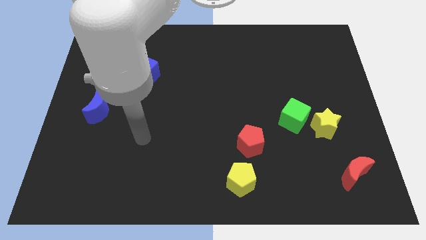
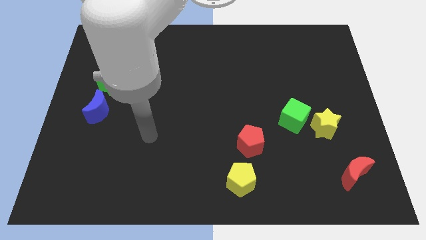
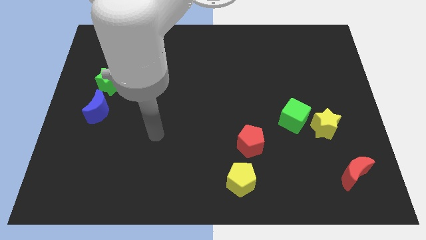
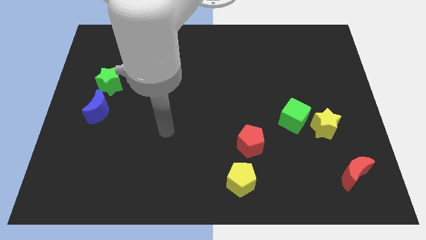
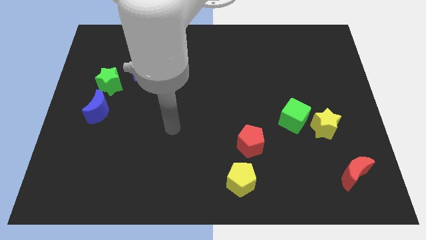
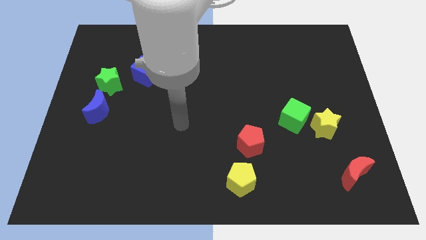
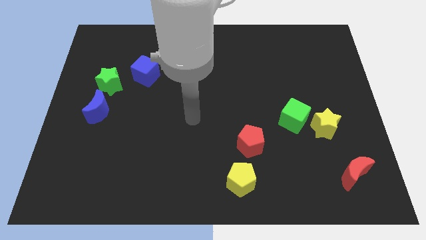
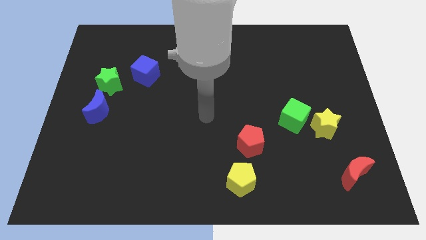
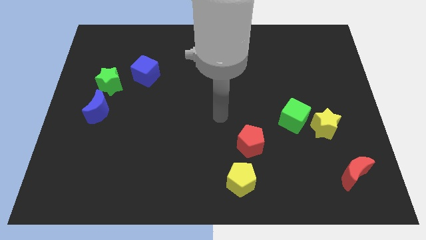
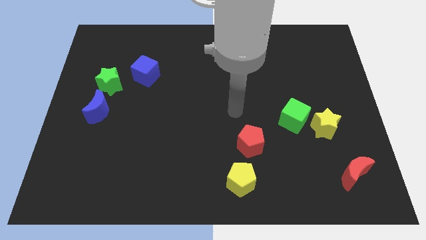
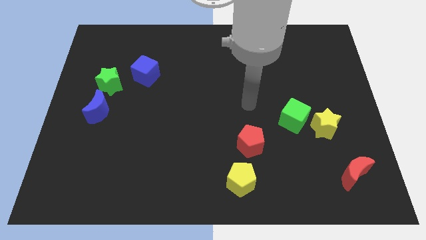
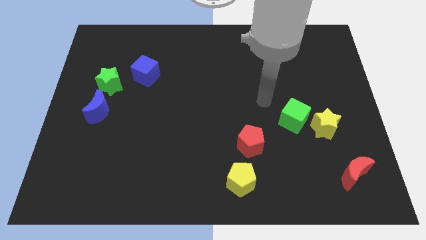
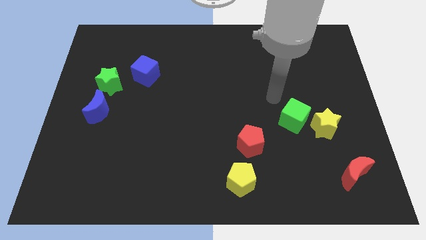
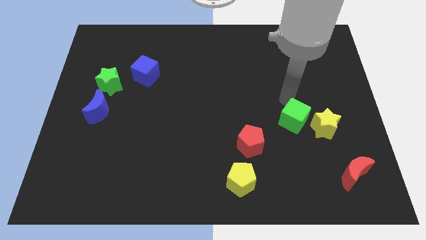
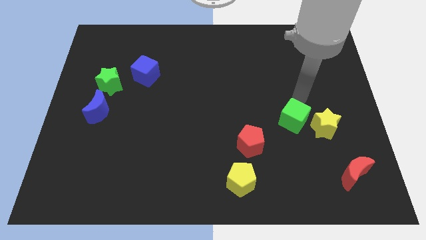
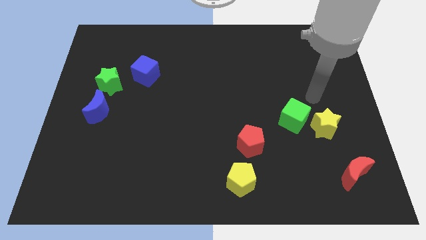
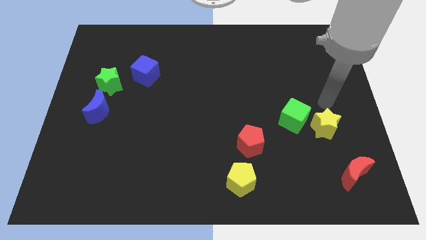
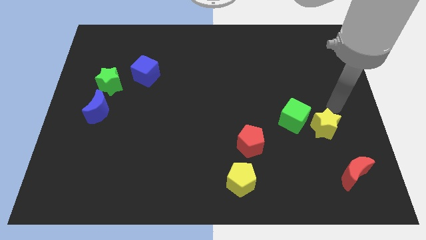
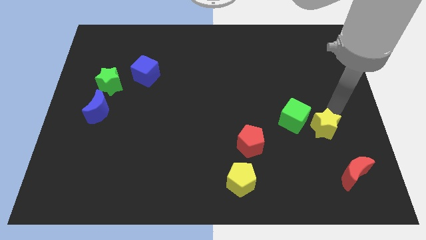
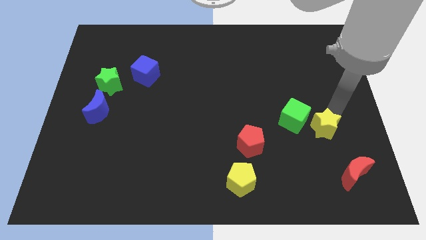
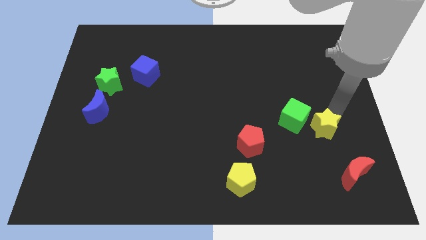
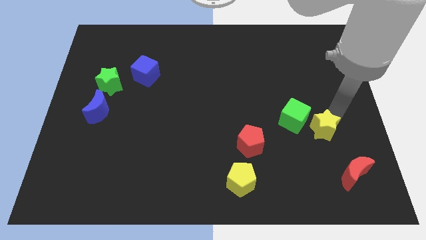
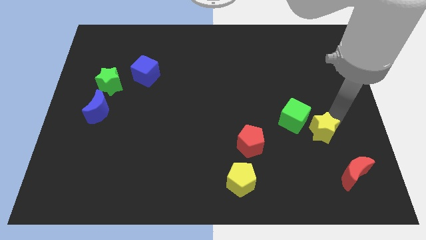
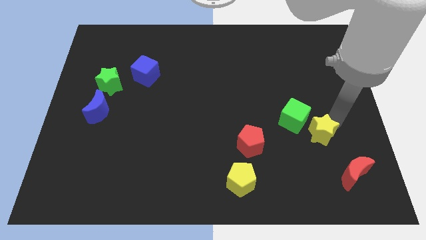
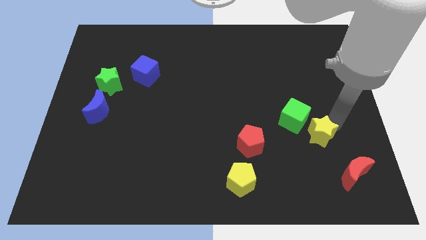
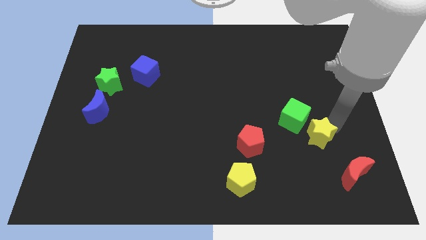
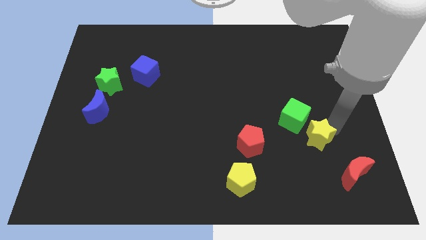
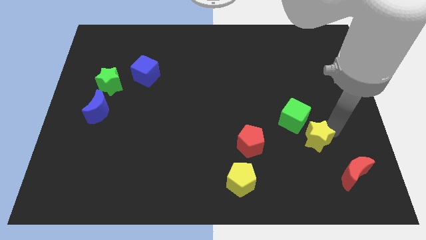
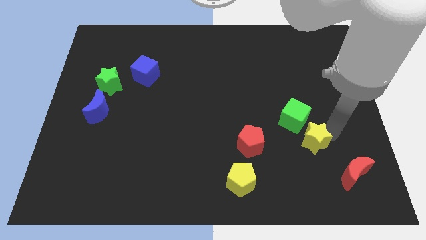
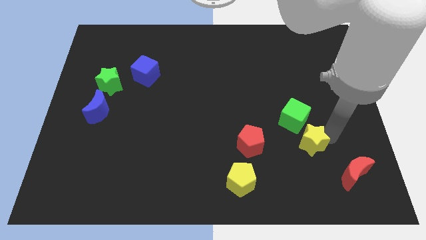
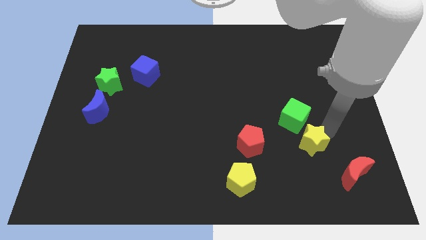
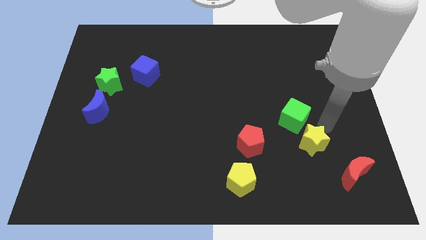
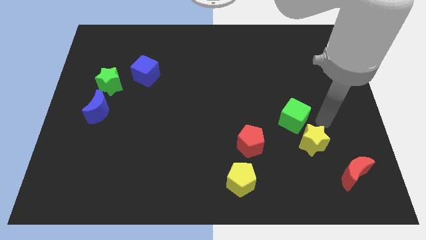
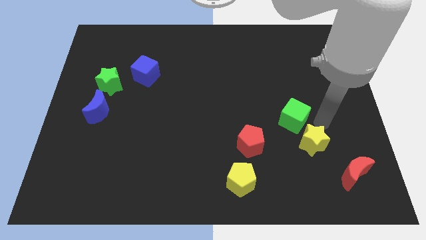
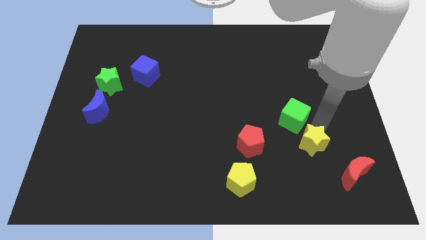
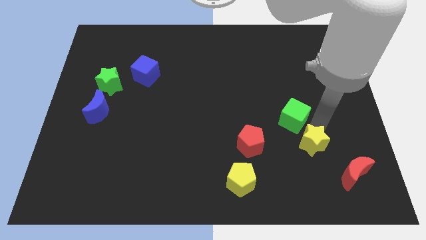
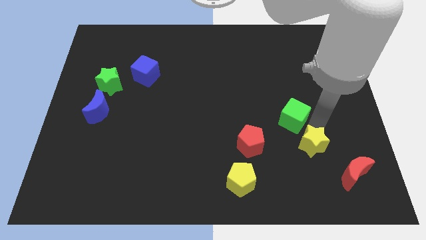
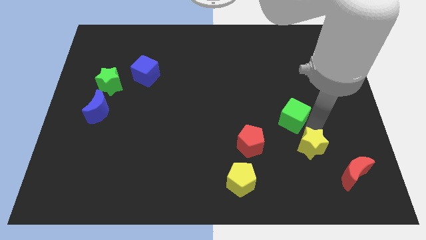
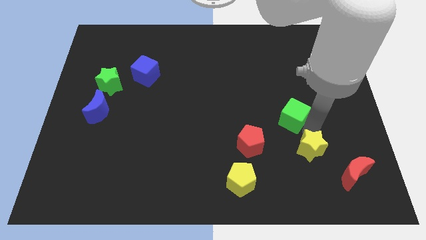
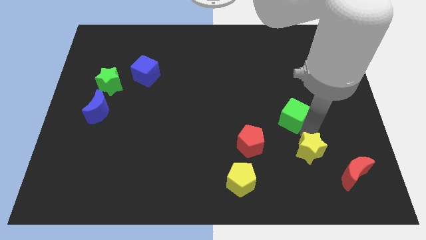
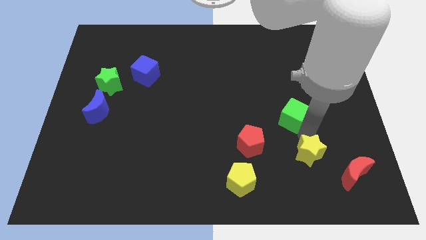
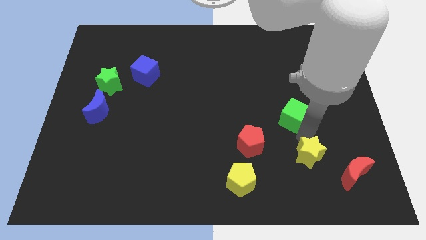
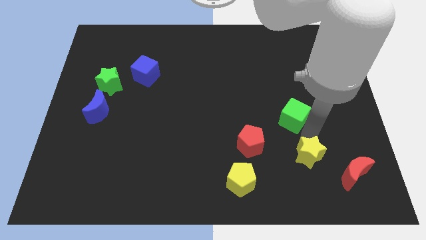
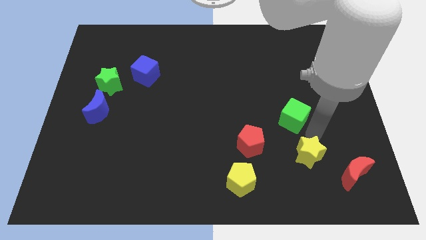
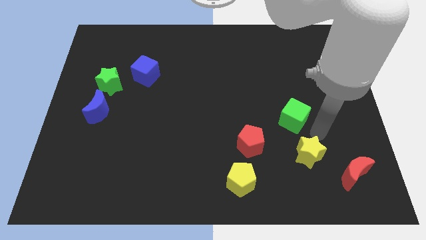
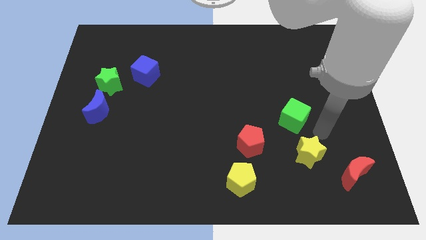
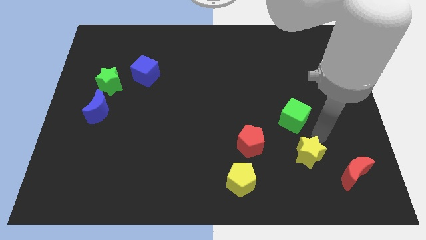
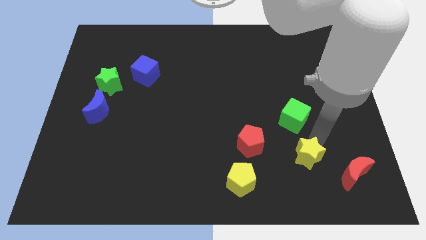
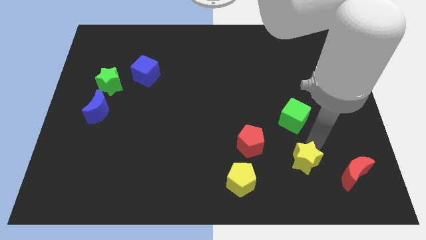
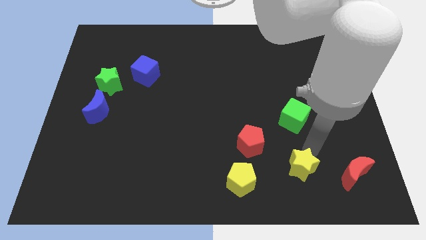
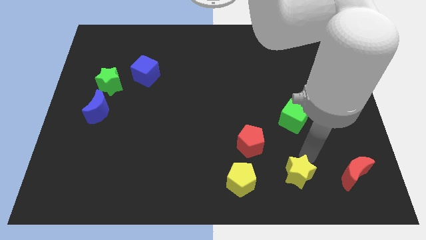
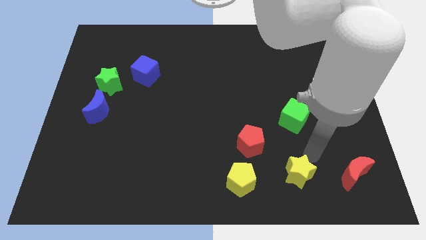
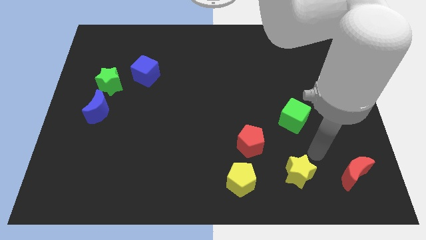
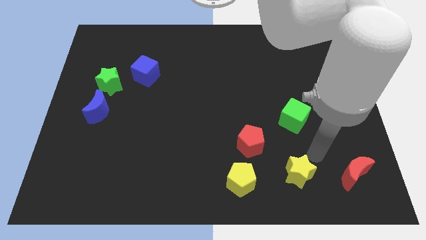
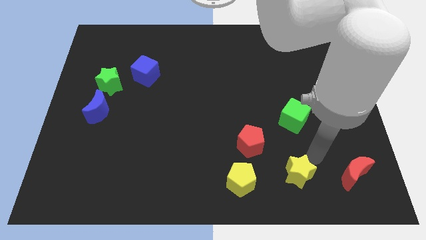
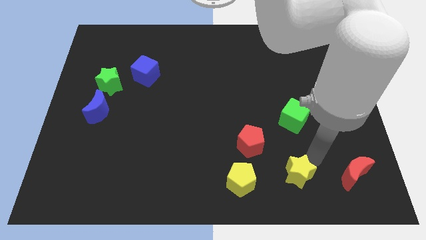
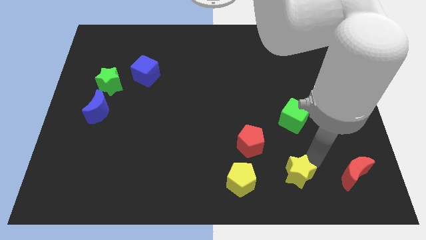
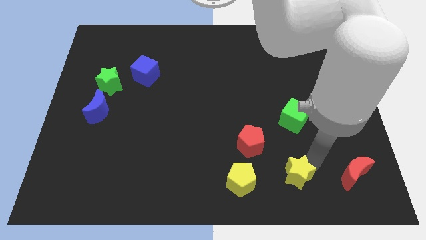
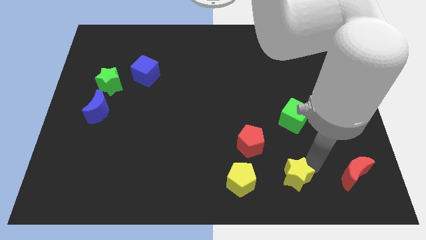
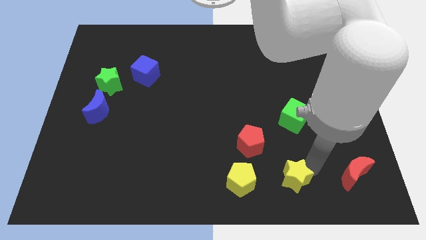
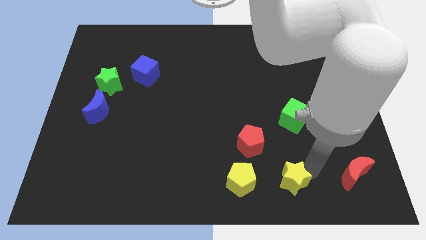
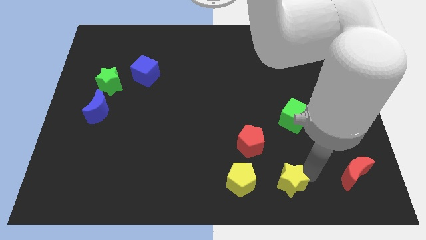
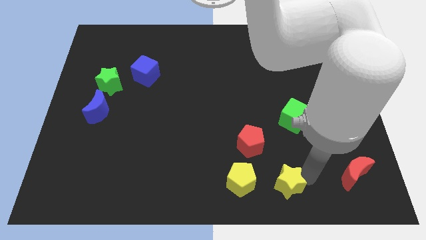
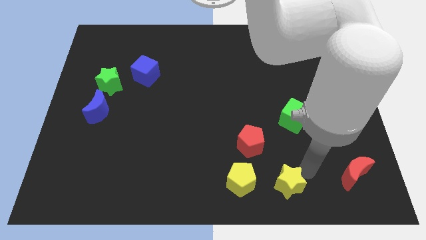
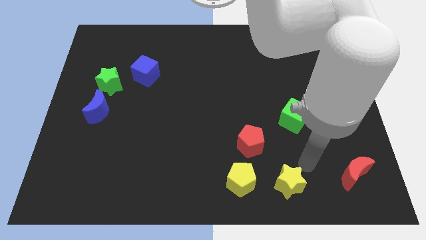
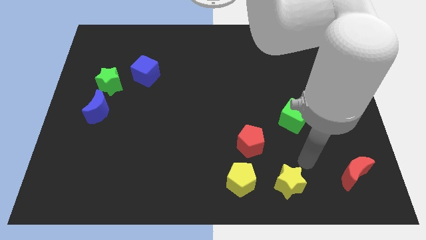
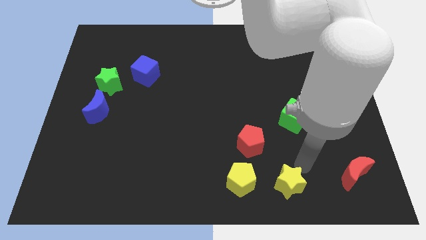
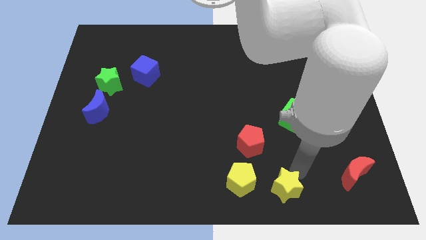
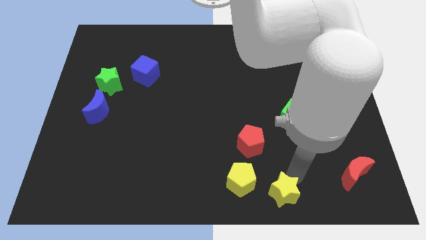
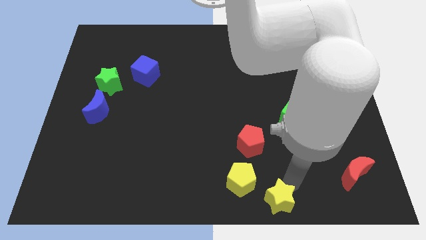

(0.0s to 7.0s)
move the yellow star to the bottom side
